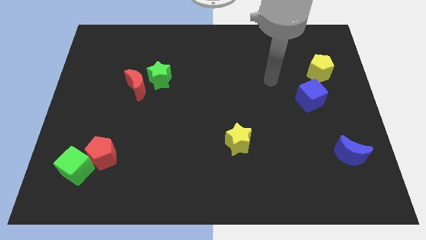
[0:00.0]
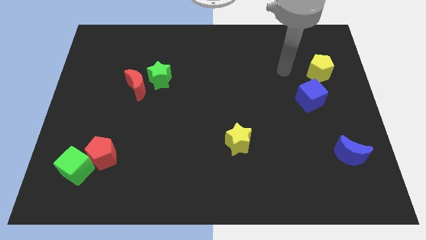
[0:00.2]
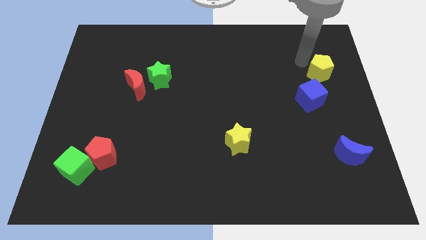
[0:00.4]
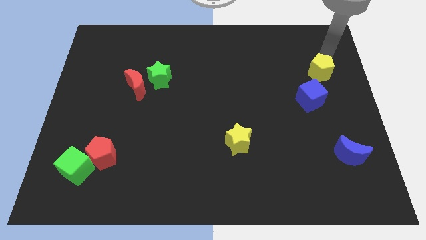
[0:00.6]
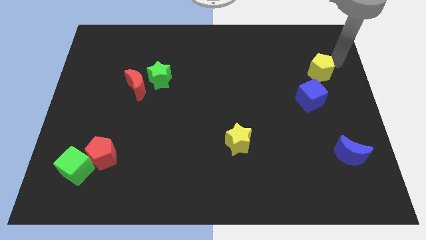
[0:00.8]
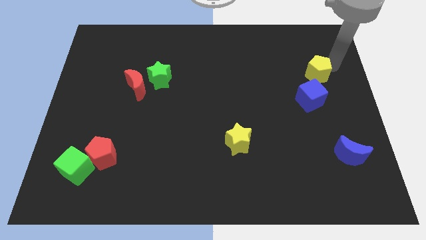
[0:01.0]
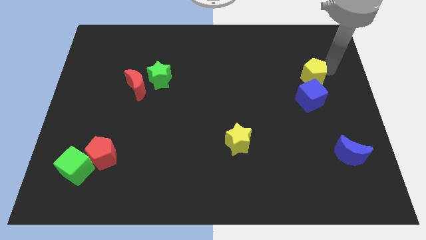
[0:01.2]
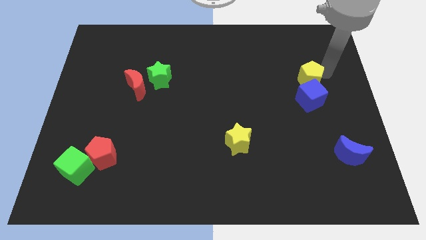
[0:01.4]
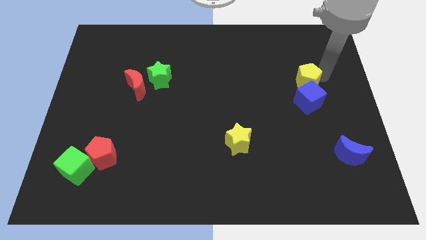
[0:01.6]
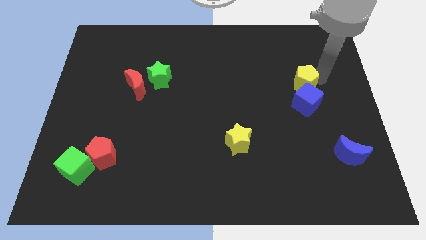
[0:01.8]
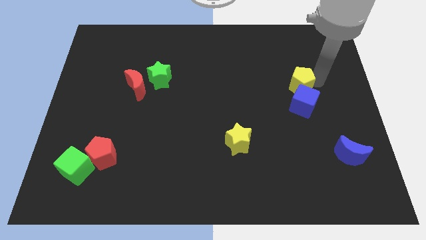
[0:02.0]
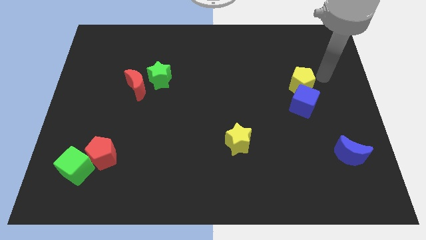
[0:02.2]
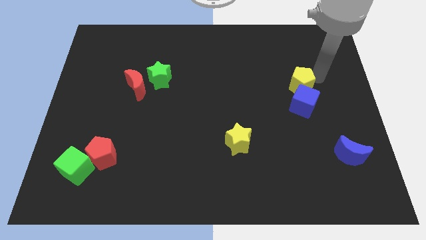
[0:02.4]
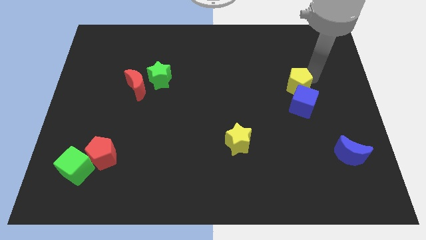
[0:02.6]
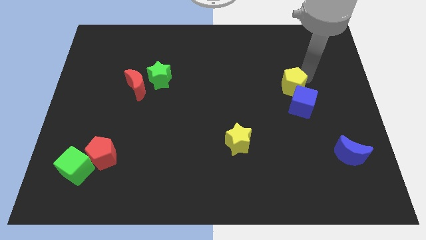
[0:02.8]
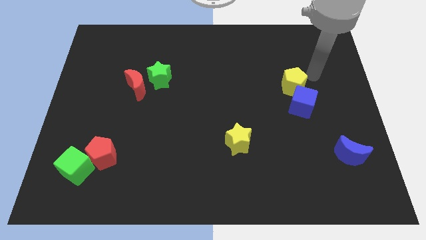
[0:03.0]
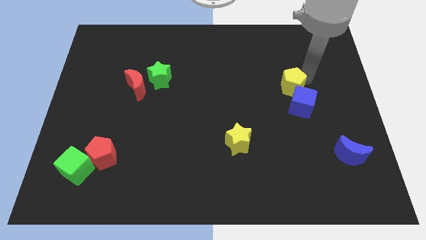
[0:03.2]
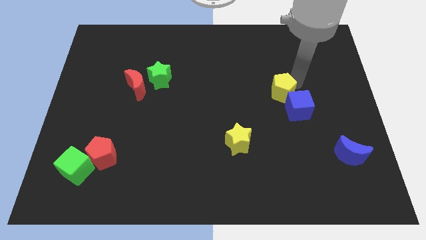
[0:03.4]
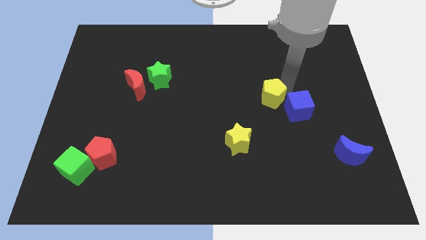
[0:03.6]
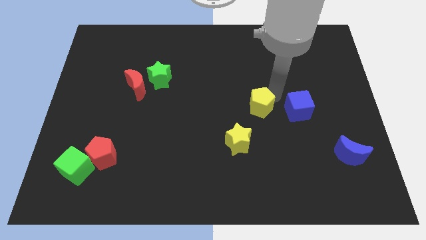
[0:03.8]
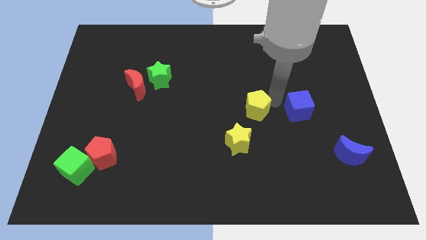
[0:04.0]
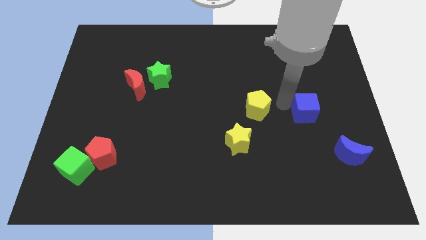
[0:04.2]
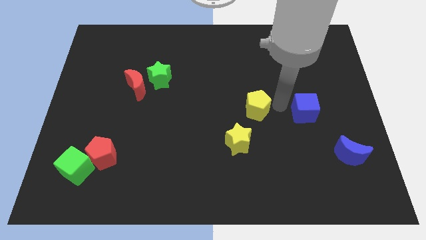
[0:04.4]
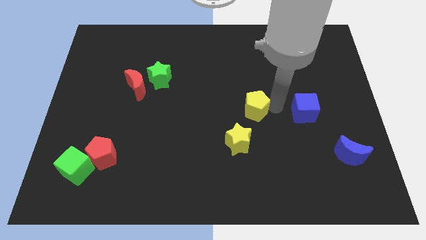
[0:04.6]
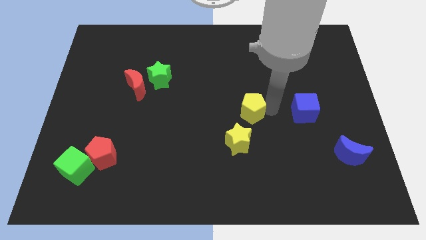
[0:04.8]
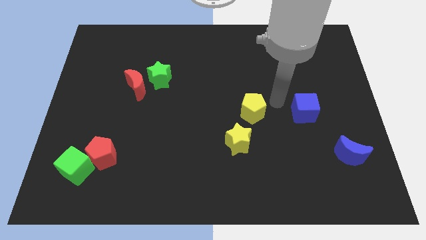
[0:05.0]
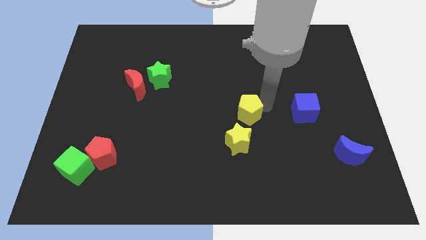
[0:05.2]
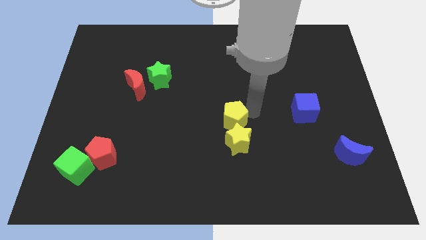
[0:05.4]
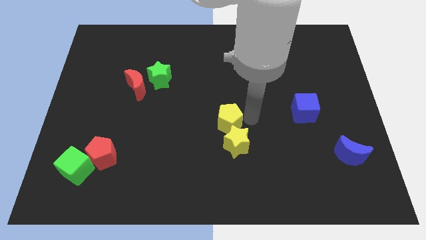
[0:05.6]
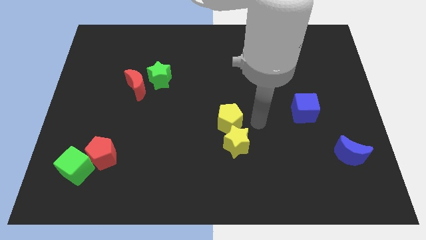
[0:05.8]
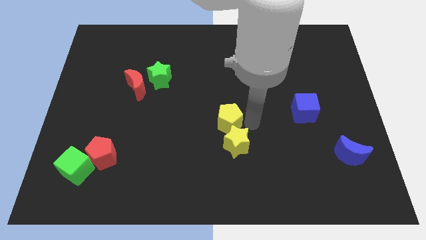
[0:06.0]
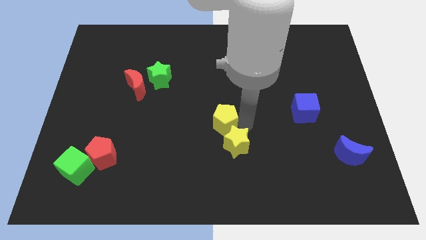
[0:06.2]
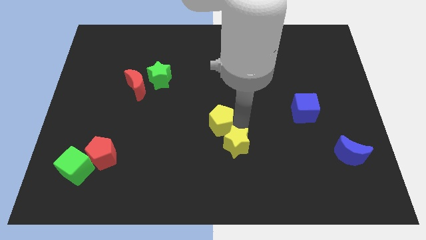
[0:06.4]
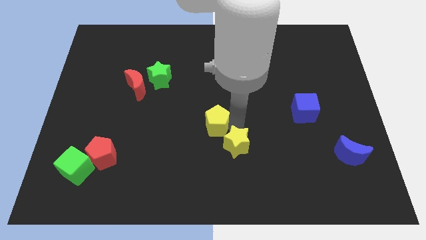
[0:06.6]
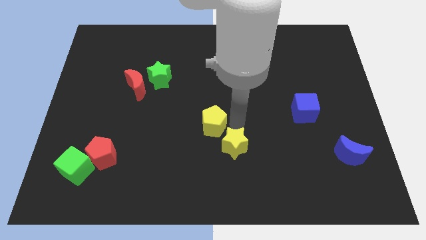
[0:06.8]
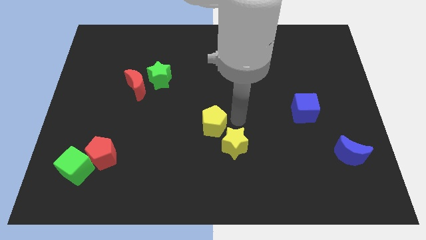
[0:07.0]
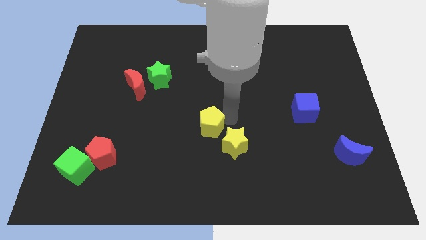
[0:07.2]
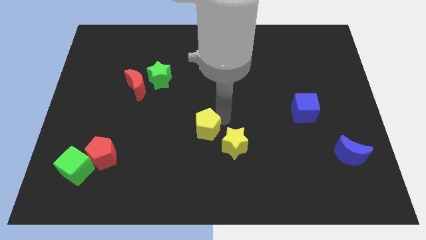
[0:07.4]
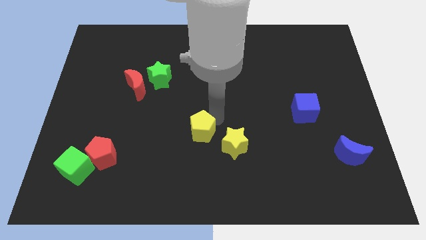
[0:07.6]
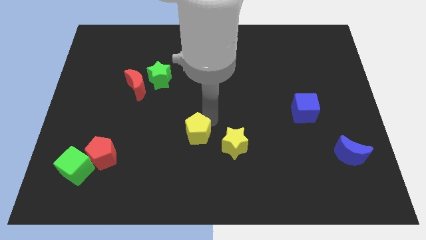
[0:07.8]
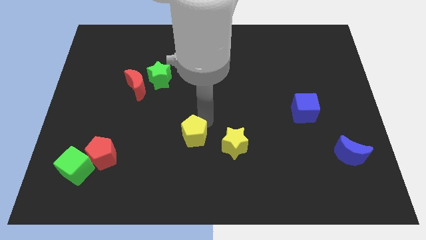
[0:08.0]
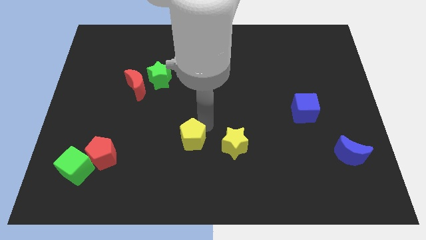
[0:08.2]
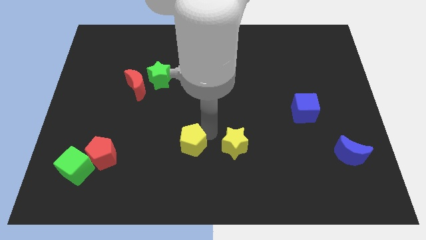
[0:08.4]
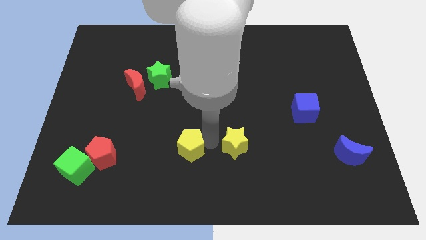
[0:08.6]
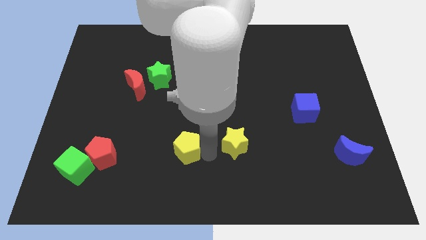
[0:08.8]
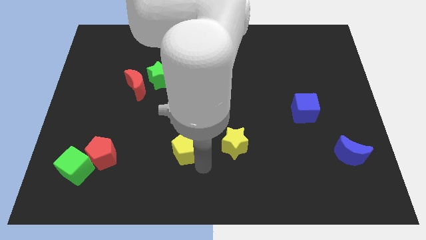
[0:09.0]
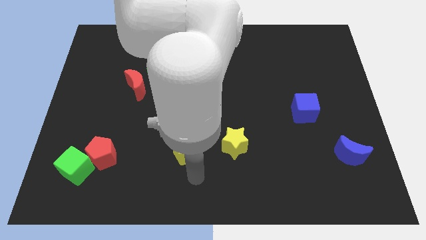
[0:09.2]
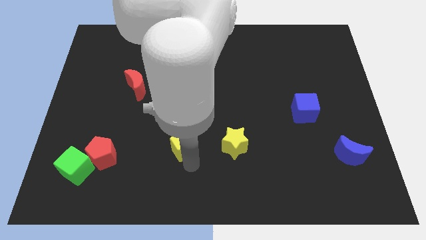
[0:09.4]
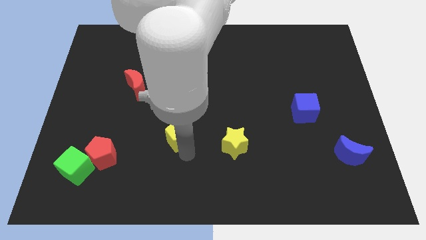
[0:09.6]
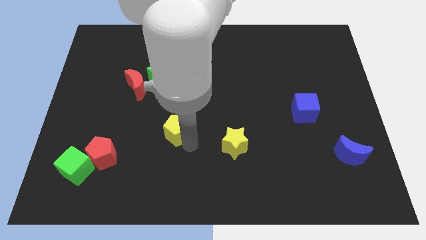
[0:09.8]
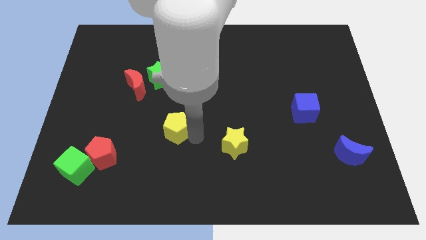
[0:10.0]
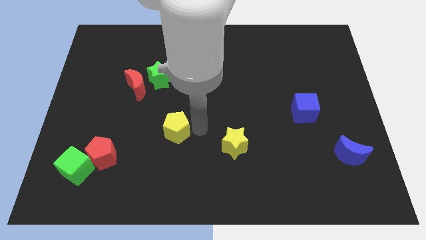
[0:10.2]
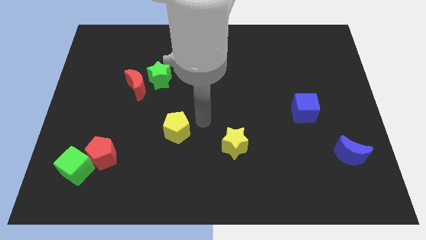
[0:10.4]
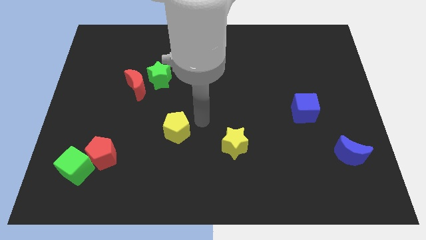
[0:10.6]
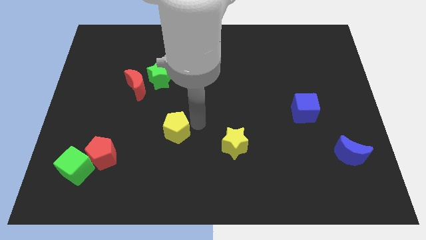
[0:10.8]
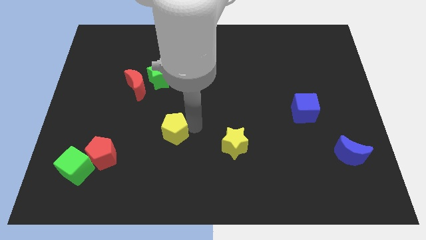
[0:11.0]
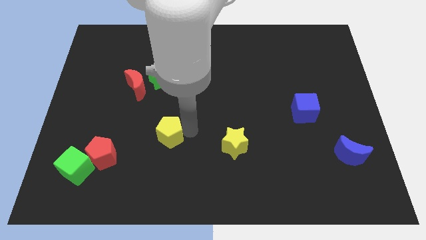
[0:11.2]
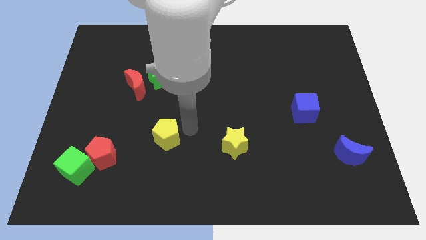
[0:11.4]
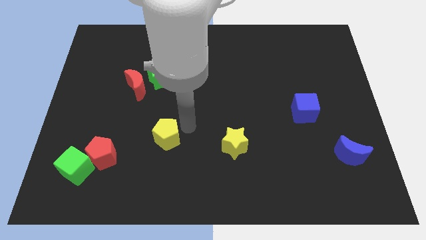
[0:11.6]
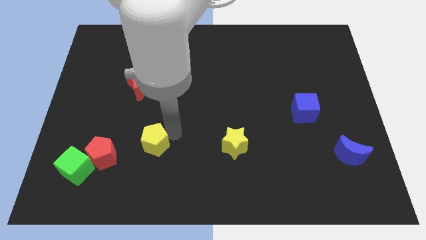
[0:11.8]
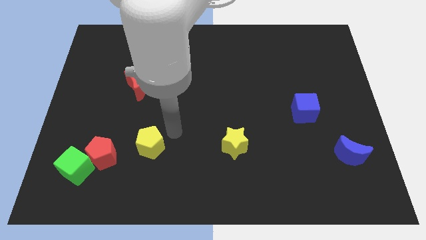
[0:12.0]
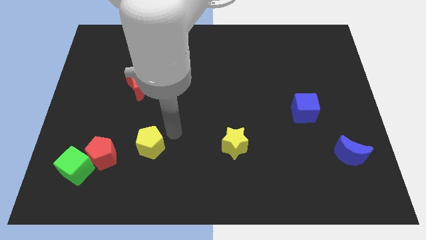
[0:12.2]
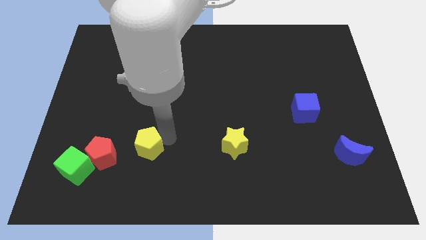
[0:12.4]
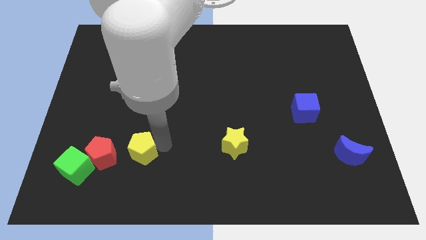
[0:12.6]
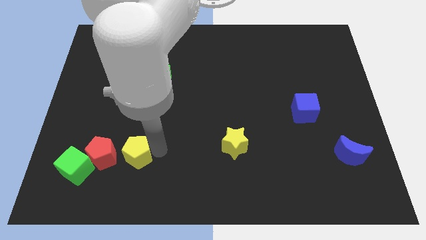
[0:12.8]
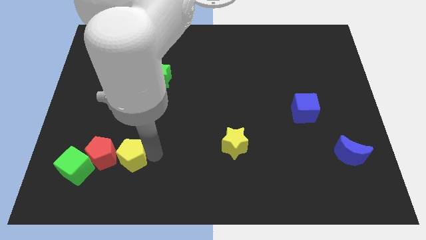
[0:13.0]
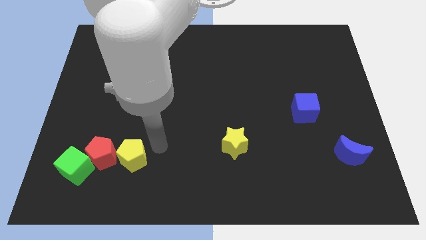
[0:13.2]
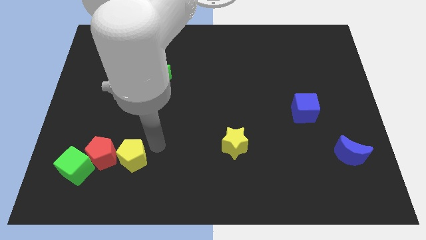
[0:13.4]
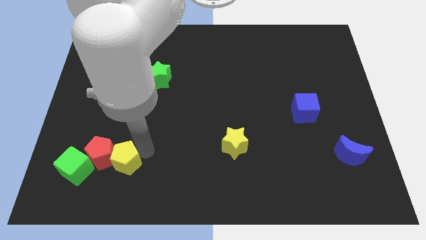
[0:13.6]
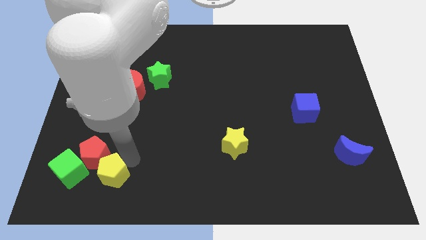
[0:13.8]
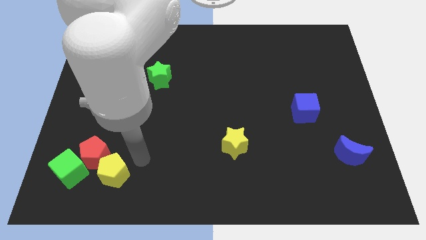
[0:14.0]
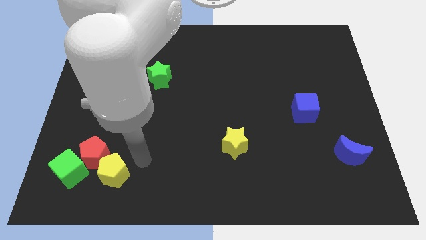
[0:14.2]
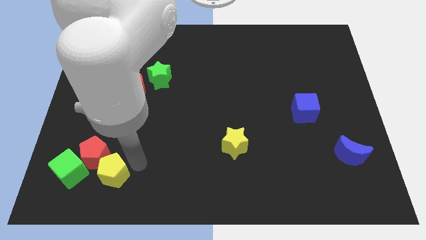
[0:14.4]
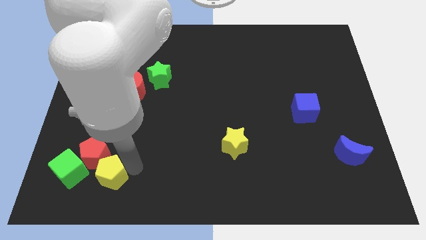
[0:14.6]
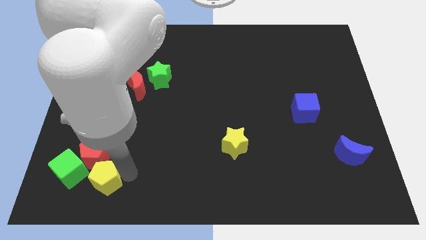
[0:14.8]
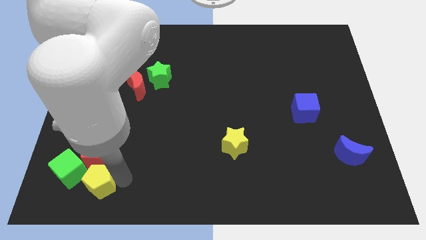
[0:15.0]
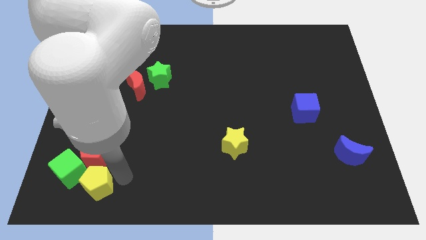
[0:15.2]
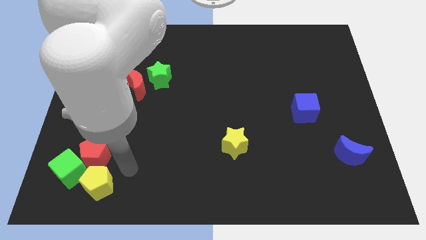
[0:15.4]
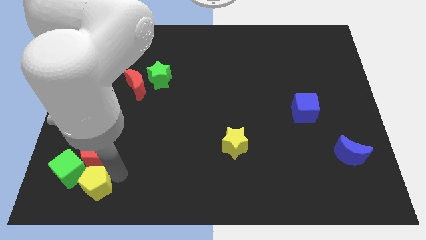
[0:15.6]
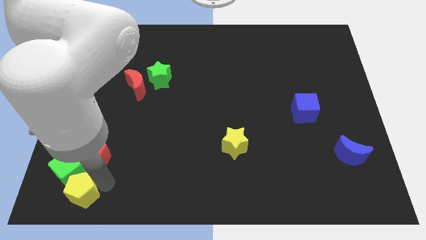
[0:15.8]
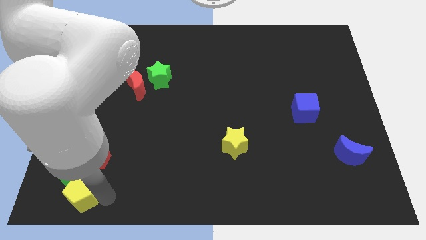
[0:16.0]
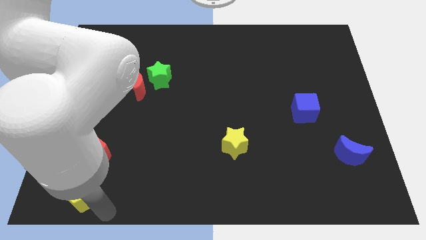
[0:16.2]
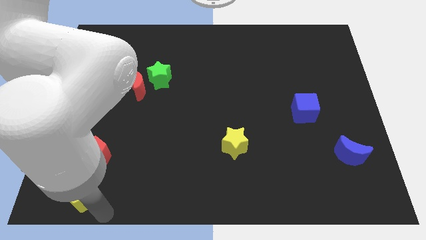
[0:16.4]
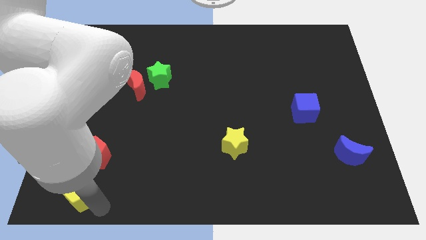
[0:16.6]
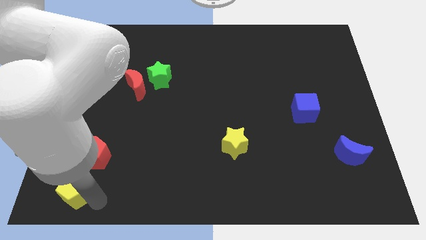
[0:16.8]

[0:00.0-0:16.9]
put the yellow pentagon to the bottom left side of the red pentagon
